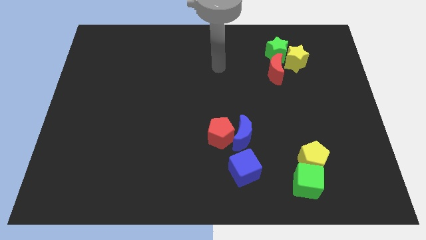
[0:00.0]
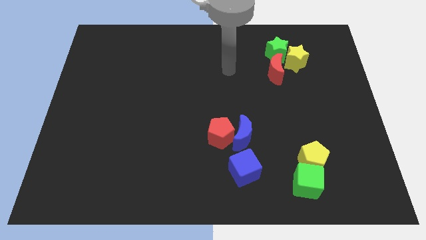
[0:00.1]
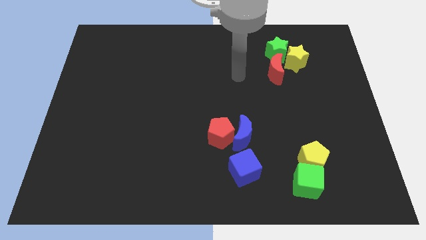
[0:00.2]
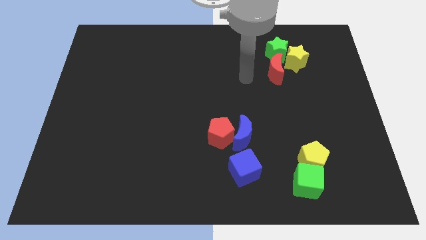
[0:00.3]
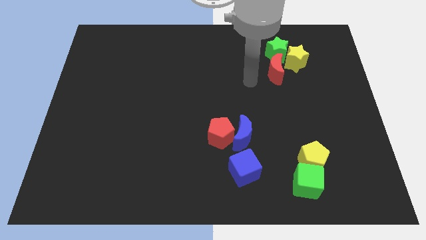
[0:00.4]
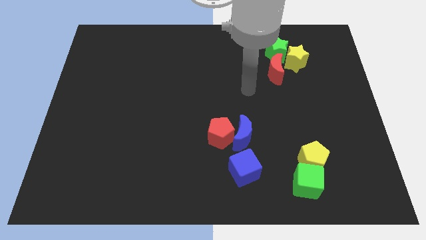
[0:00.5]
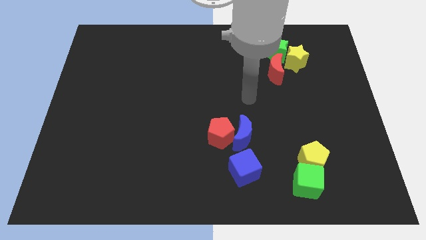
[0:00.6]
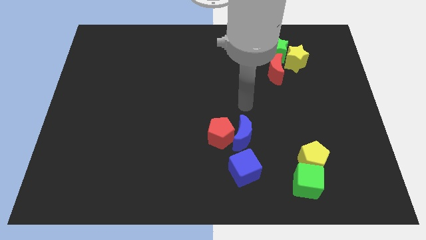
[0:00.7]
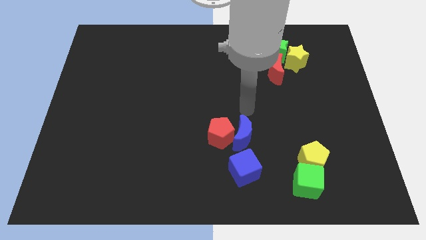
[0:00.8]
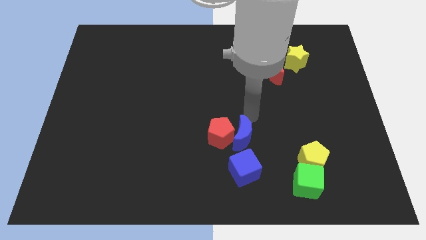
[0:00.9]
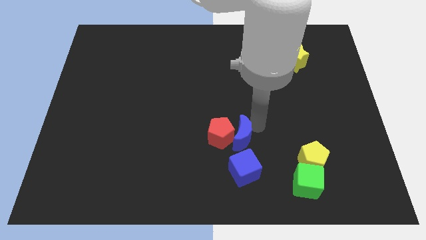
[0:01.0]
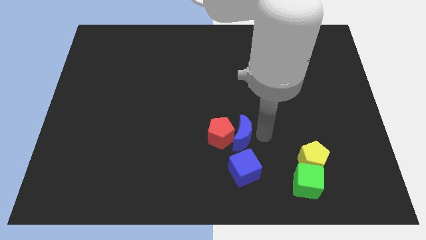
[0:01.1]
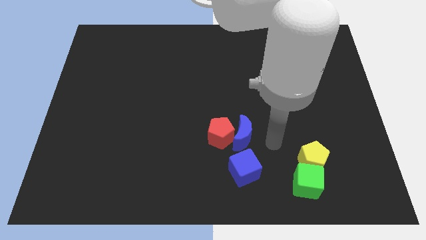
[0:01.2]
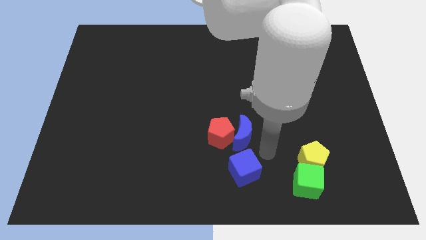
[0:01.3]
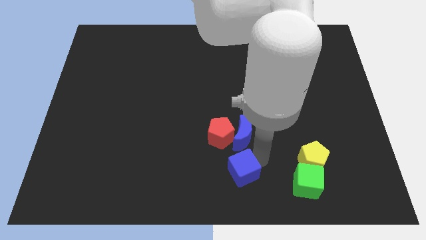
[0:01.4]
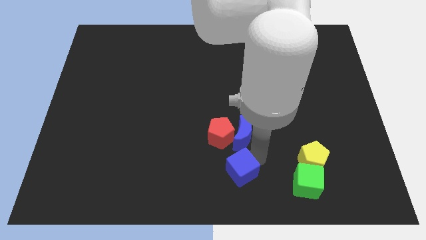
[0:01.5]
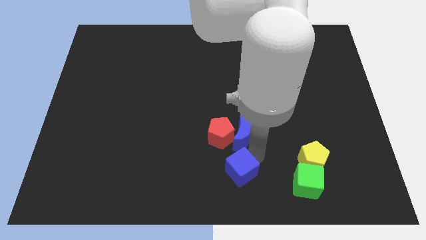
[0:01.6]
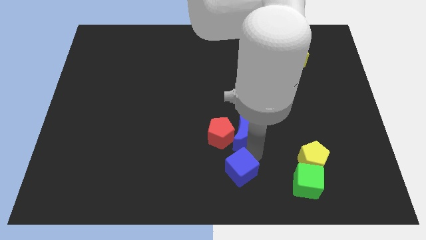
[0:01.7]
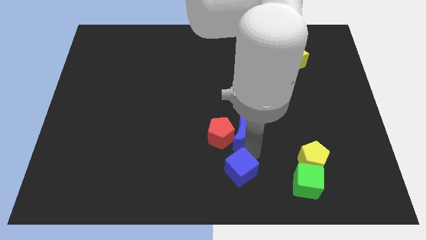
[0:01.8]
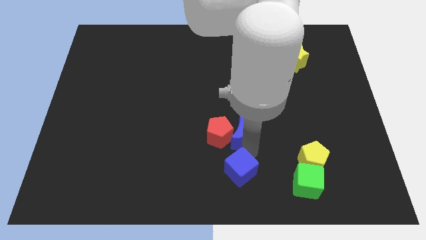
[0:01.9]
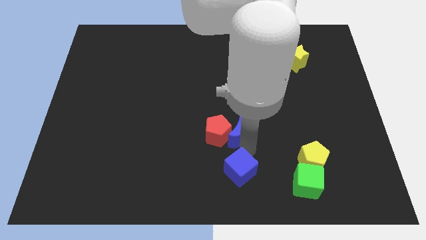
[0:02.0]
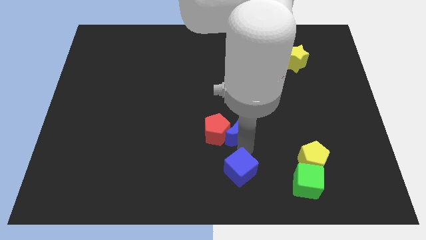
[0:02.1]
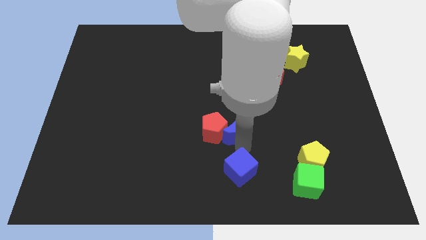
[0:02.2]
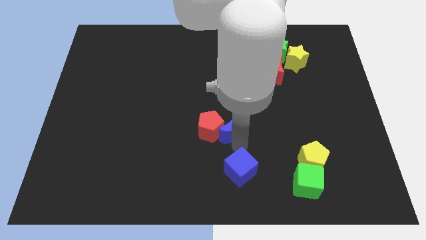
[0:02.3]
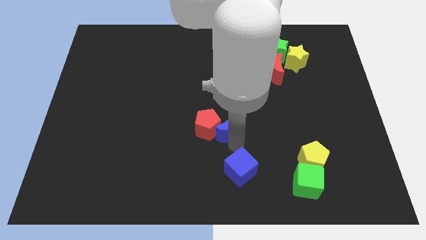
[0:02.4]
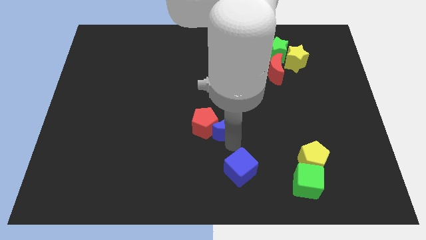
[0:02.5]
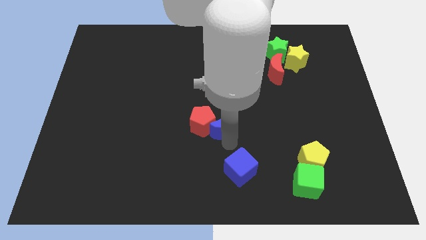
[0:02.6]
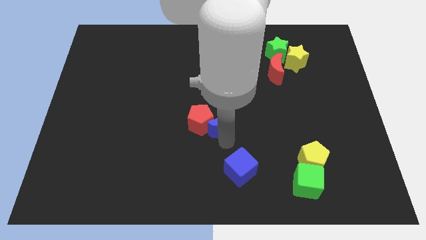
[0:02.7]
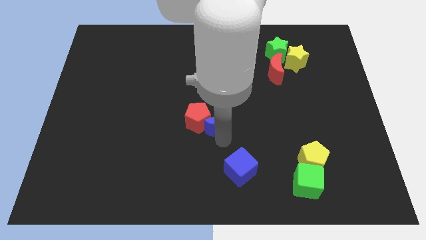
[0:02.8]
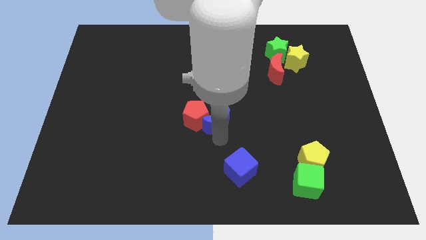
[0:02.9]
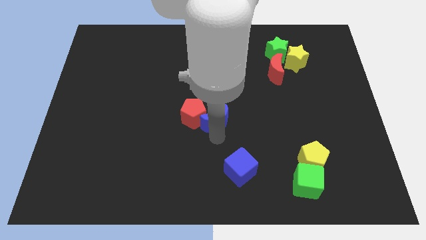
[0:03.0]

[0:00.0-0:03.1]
slightly move the blue moon up and then to the left

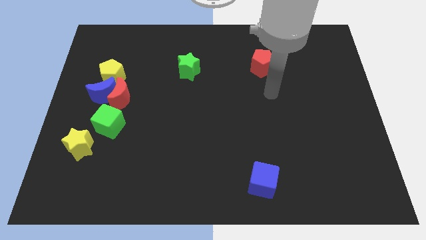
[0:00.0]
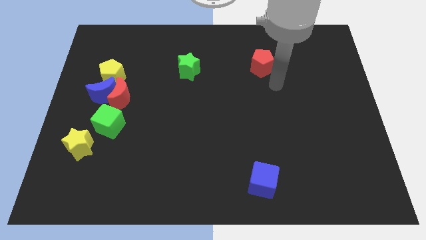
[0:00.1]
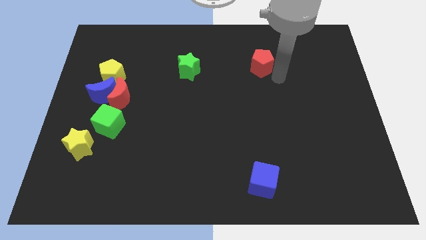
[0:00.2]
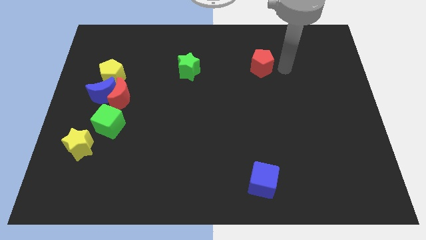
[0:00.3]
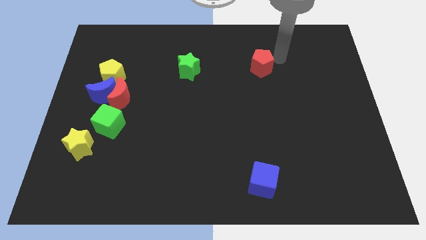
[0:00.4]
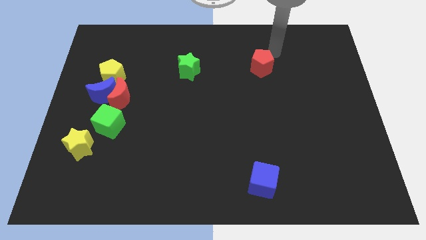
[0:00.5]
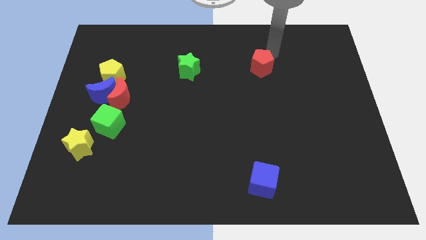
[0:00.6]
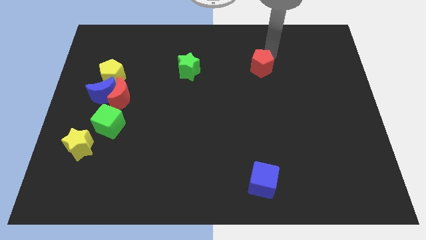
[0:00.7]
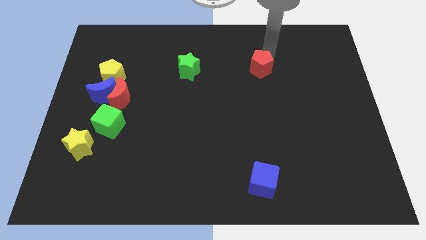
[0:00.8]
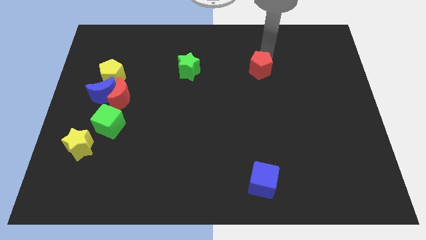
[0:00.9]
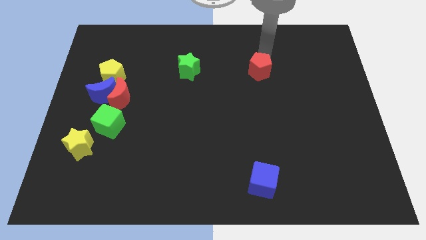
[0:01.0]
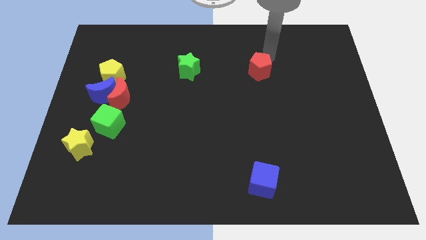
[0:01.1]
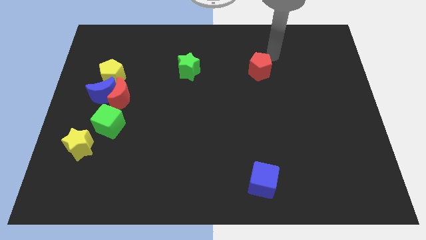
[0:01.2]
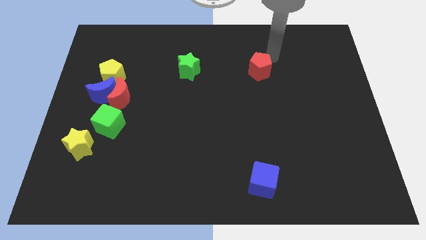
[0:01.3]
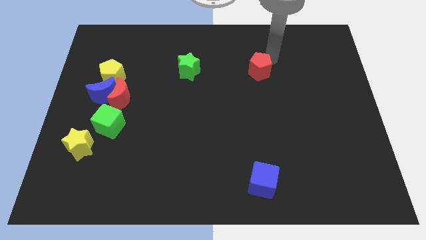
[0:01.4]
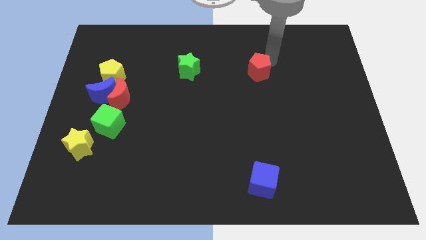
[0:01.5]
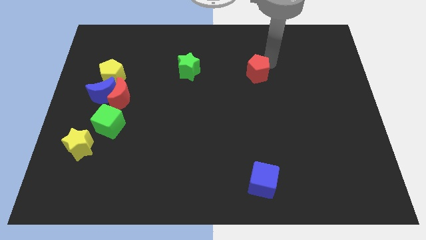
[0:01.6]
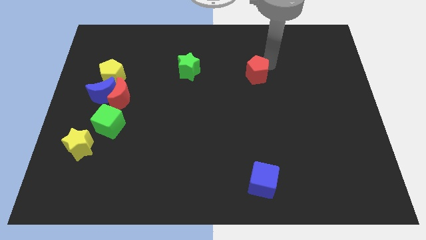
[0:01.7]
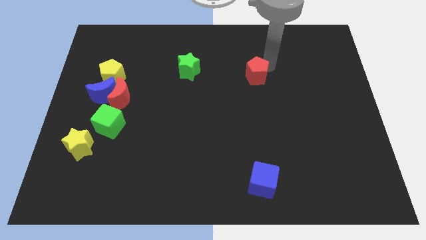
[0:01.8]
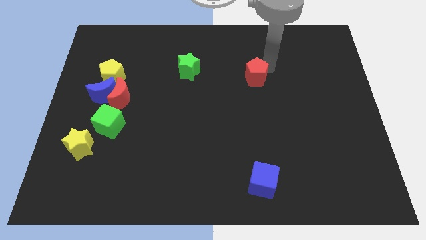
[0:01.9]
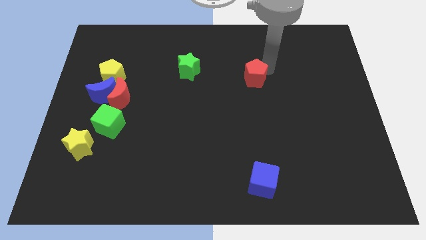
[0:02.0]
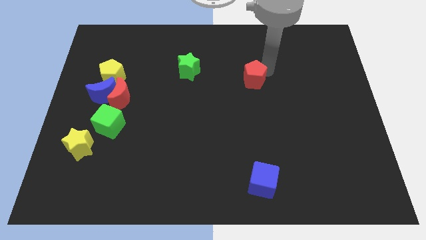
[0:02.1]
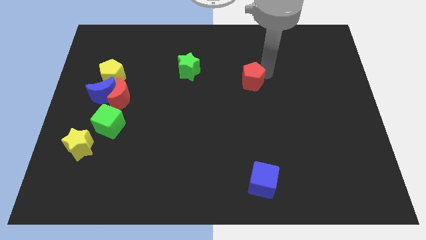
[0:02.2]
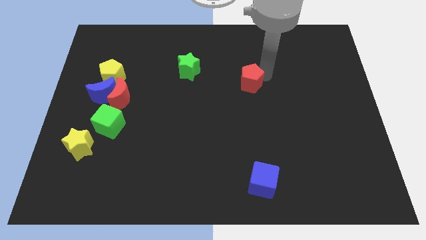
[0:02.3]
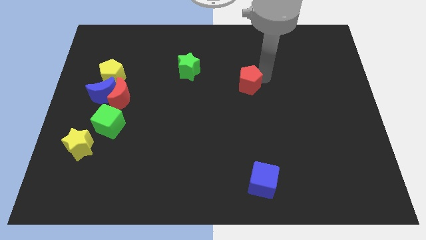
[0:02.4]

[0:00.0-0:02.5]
move the red pentagon slightly down and to the left

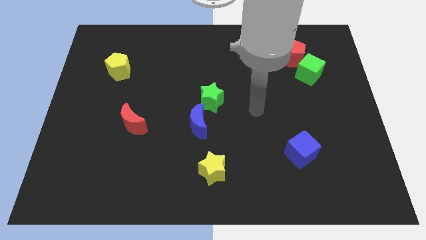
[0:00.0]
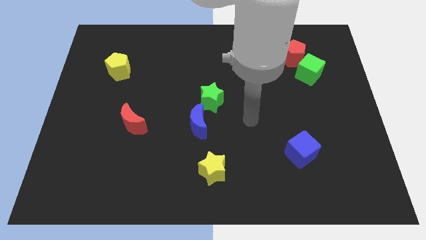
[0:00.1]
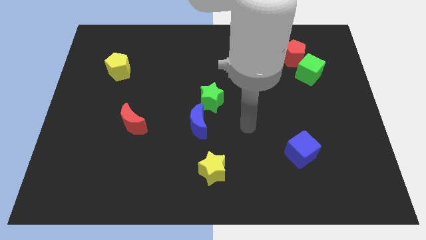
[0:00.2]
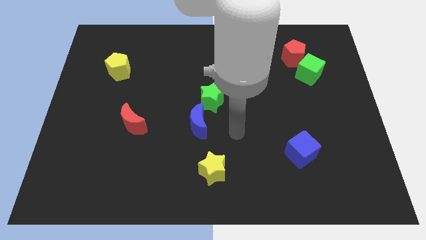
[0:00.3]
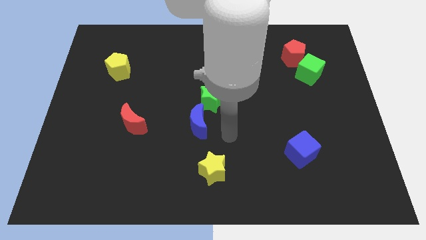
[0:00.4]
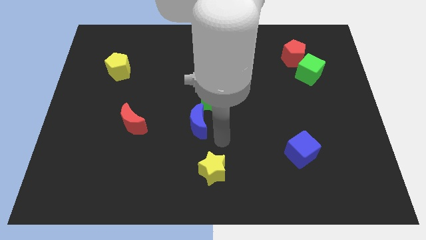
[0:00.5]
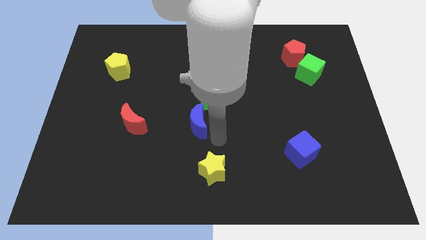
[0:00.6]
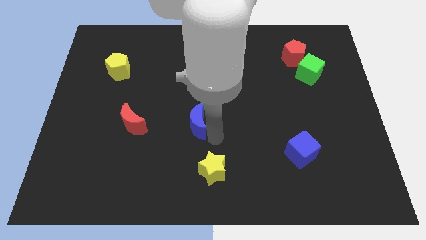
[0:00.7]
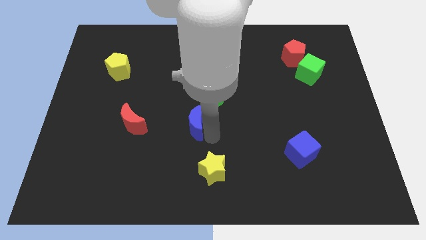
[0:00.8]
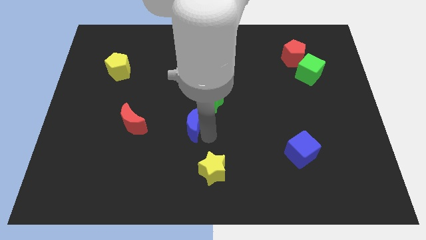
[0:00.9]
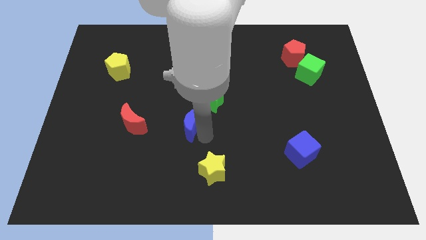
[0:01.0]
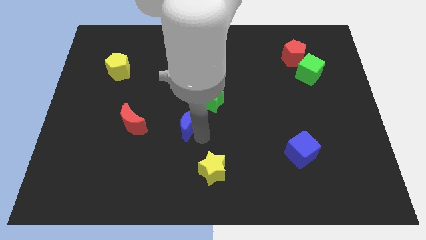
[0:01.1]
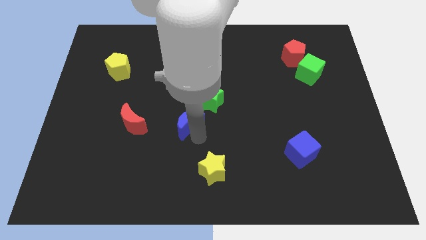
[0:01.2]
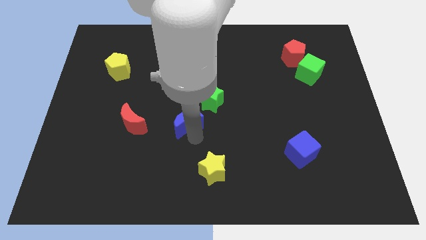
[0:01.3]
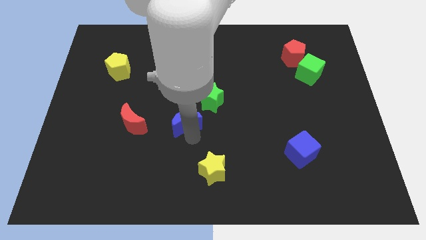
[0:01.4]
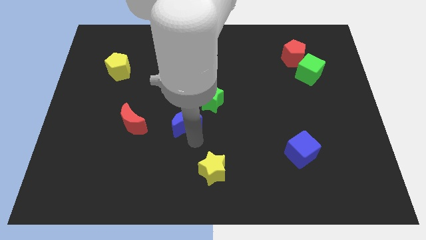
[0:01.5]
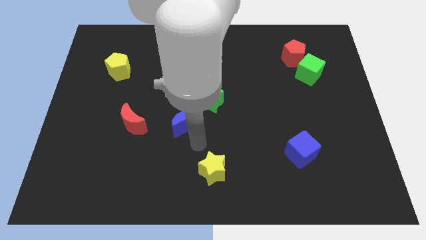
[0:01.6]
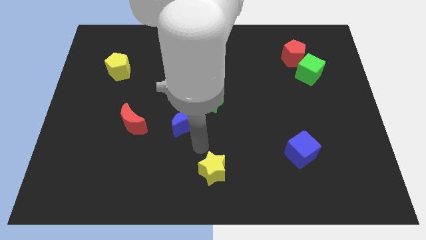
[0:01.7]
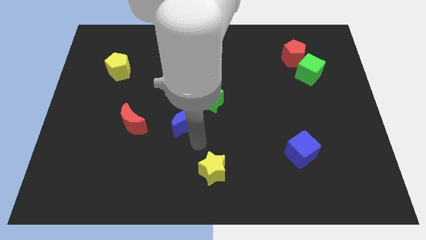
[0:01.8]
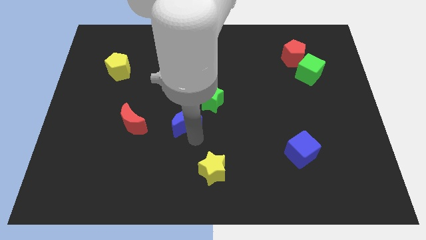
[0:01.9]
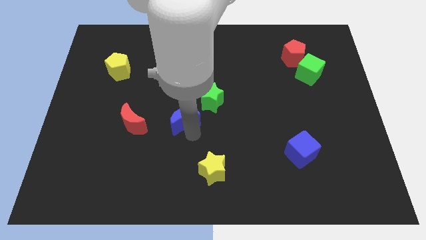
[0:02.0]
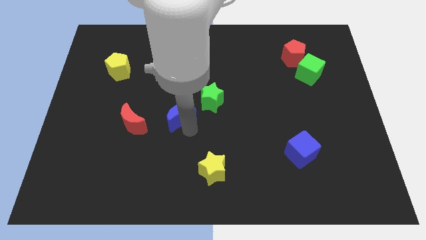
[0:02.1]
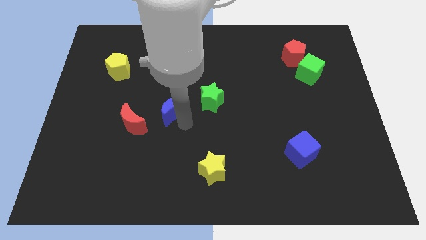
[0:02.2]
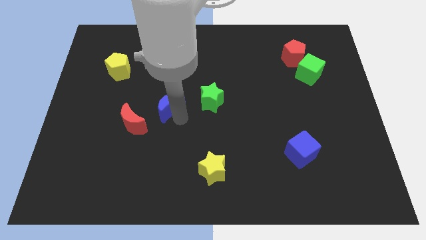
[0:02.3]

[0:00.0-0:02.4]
slightly move the blue moon upwards and left diagonally

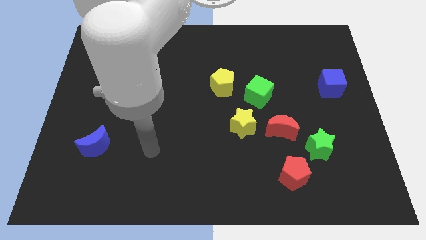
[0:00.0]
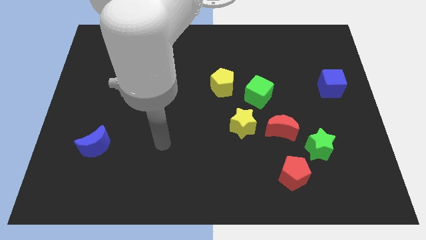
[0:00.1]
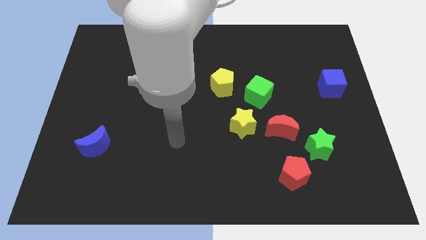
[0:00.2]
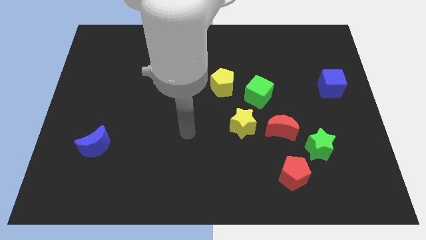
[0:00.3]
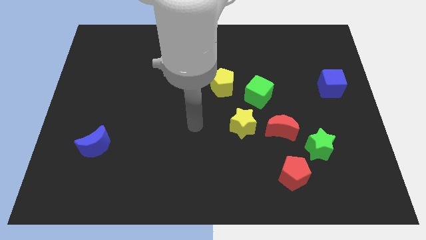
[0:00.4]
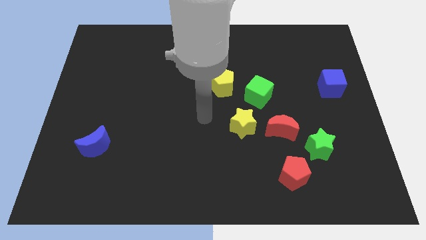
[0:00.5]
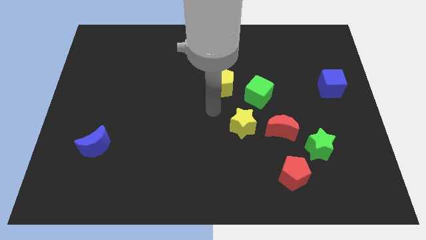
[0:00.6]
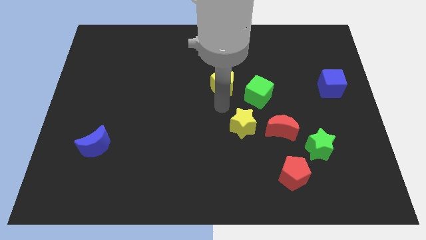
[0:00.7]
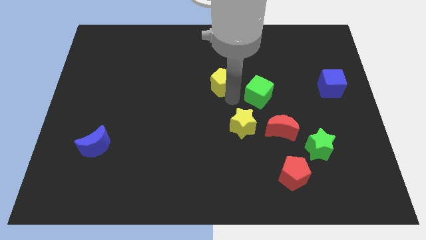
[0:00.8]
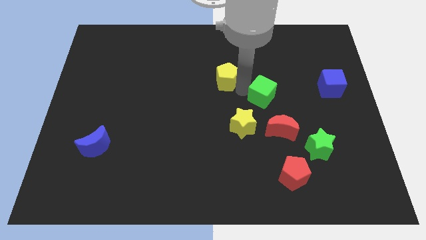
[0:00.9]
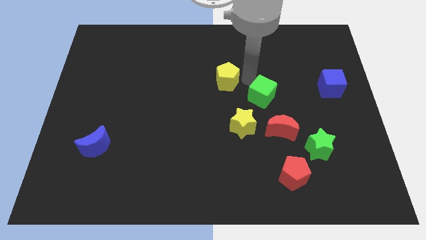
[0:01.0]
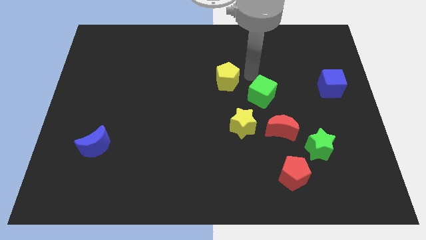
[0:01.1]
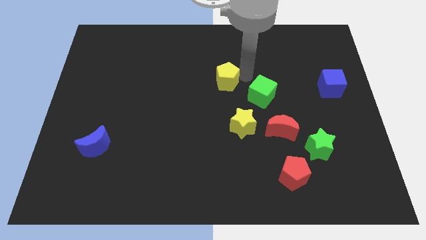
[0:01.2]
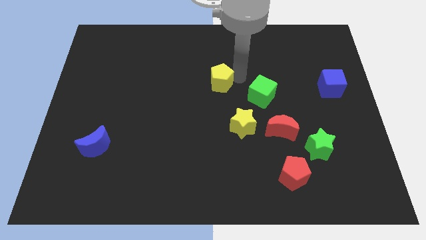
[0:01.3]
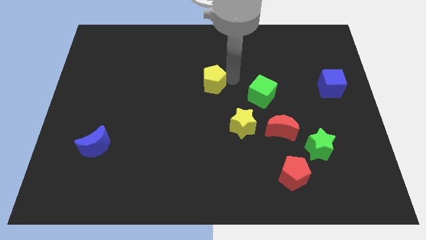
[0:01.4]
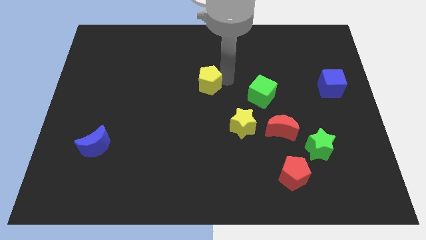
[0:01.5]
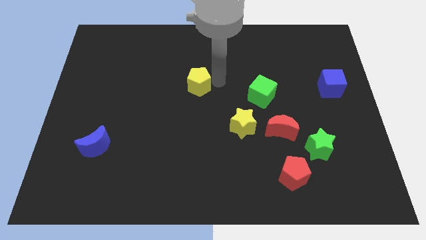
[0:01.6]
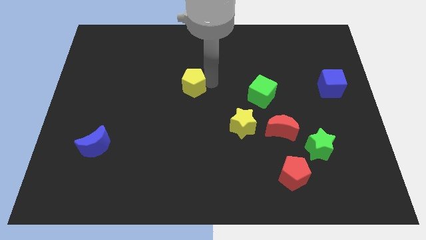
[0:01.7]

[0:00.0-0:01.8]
push the yellow pentagon to the left somewhat
